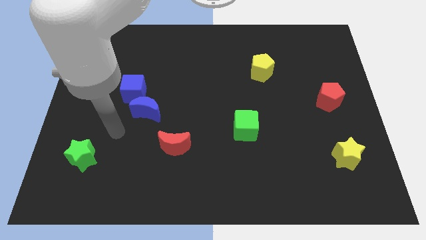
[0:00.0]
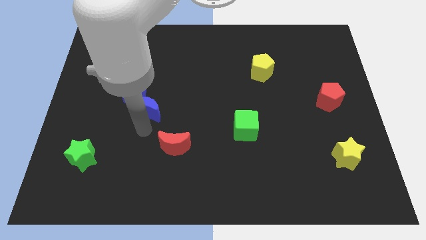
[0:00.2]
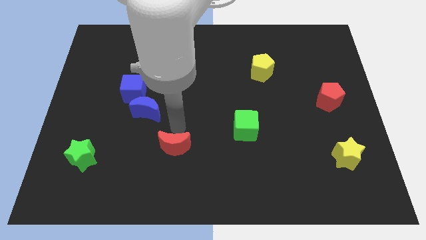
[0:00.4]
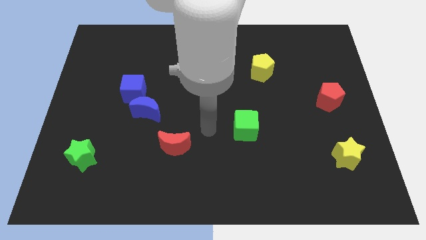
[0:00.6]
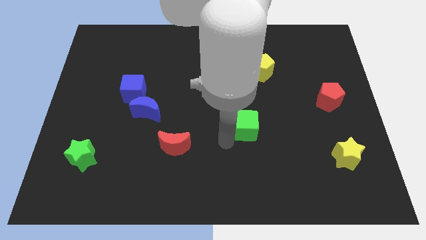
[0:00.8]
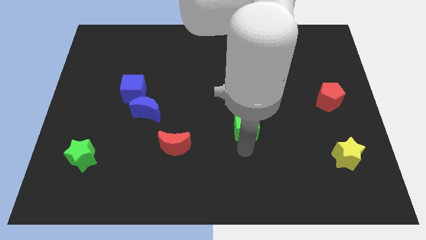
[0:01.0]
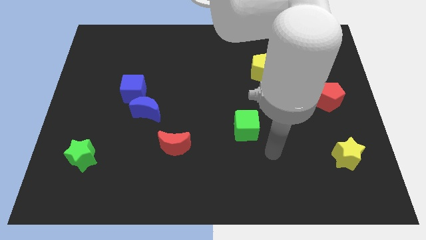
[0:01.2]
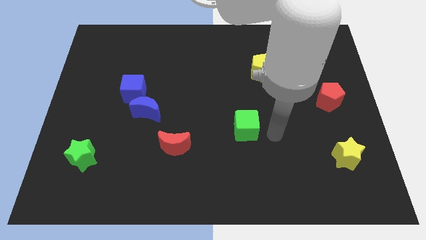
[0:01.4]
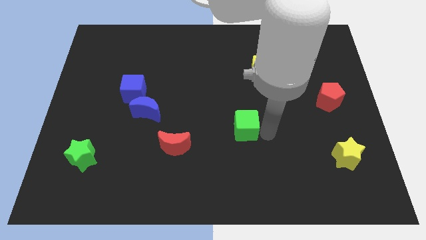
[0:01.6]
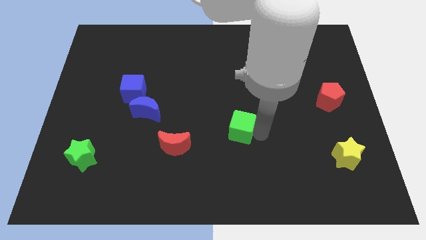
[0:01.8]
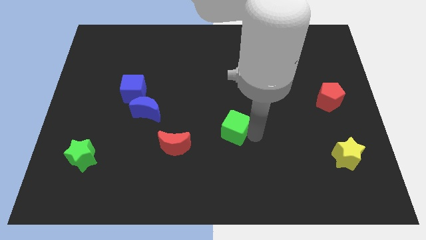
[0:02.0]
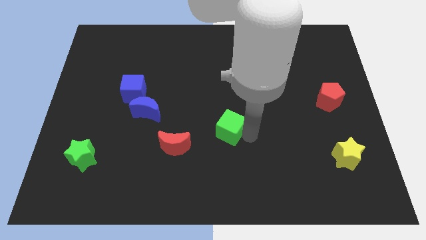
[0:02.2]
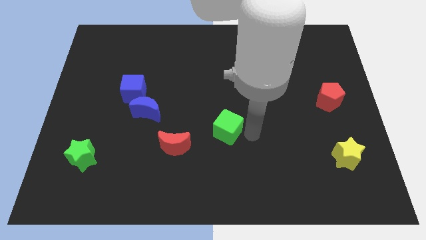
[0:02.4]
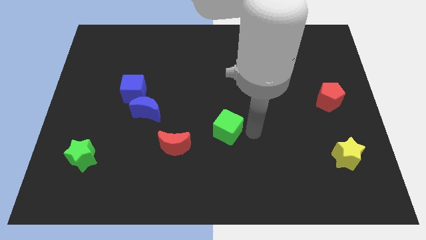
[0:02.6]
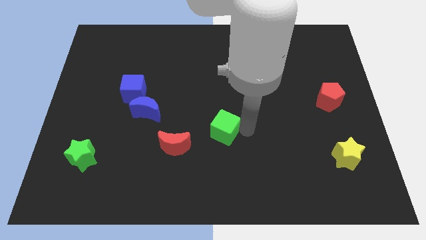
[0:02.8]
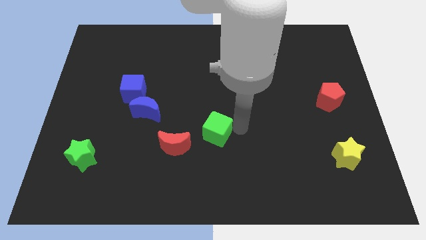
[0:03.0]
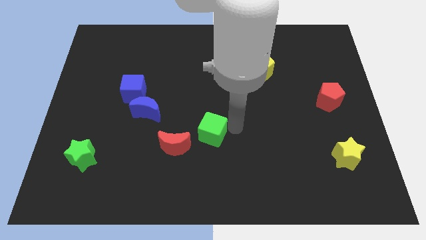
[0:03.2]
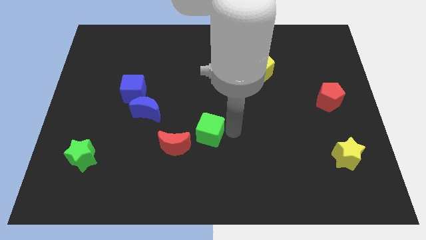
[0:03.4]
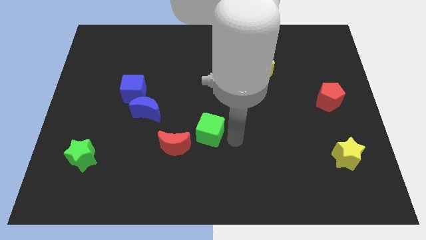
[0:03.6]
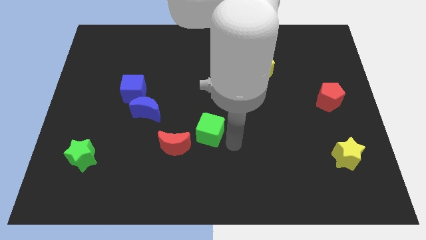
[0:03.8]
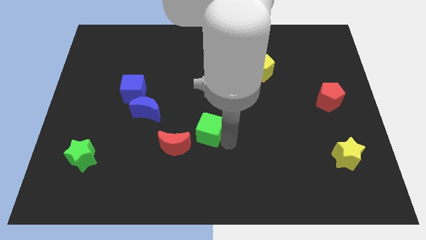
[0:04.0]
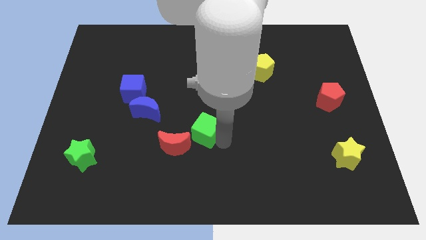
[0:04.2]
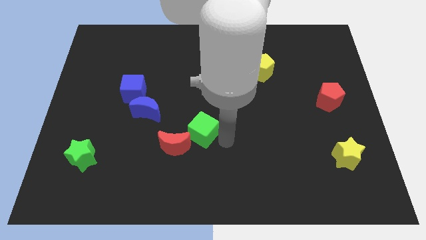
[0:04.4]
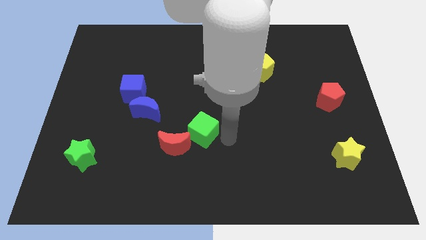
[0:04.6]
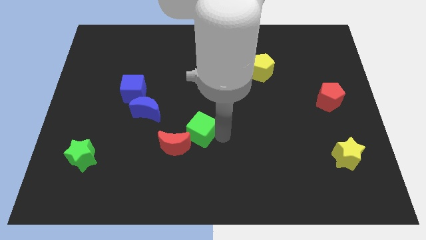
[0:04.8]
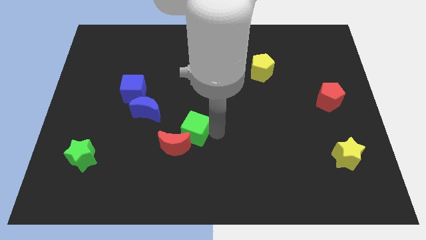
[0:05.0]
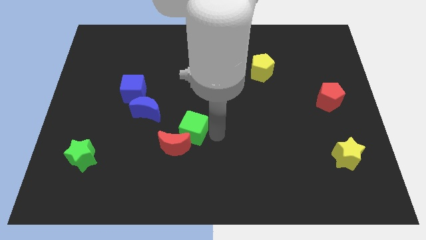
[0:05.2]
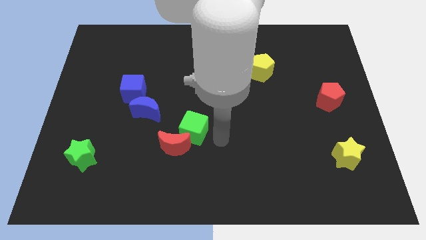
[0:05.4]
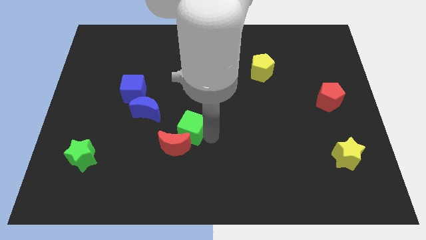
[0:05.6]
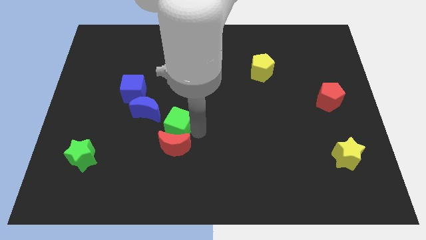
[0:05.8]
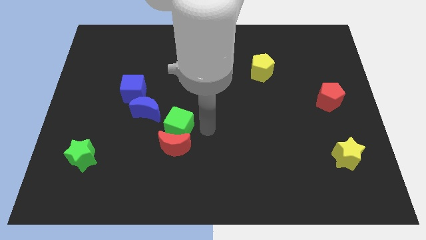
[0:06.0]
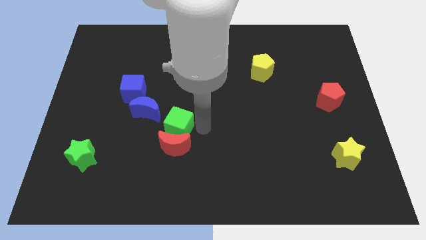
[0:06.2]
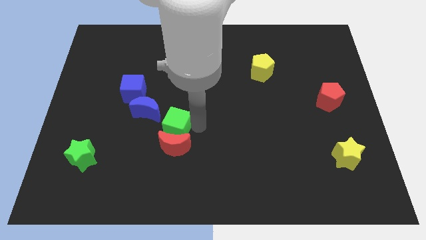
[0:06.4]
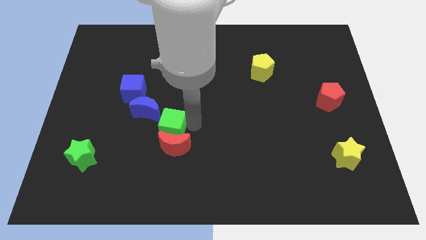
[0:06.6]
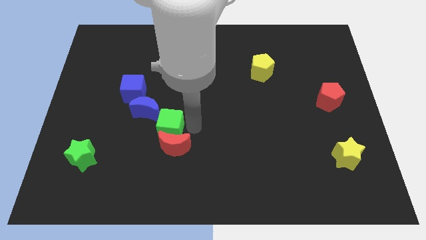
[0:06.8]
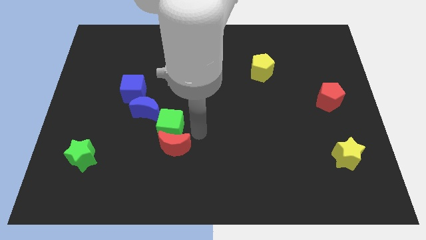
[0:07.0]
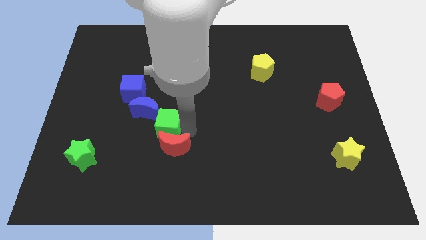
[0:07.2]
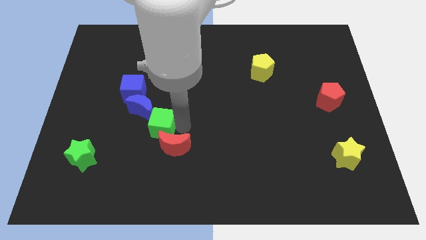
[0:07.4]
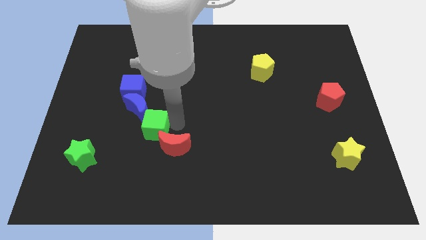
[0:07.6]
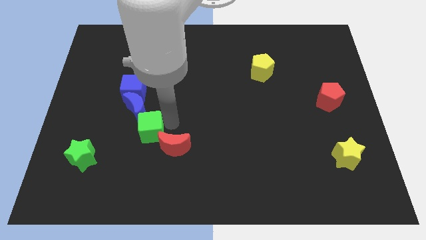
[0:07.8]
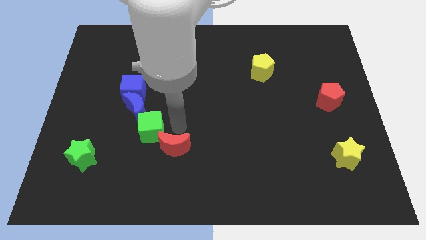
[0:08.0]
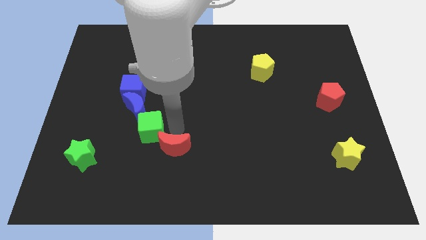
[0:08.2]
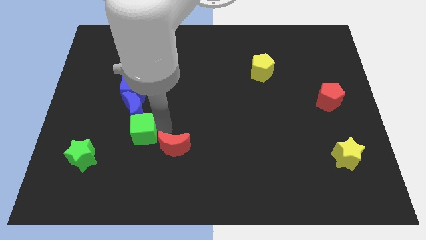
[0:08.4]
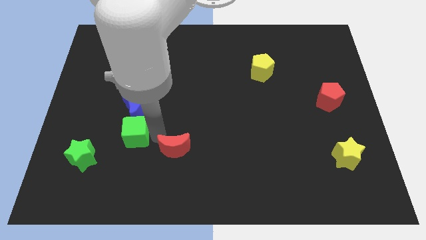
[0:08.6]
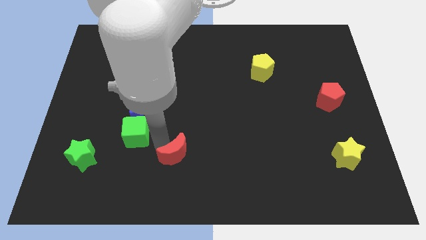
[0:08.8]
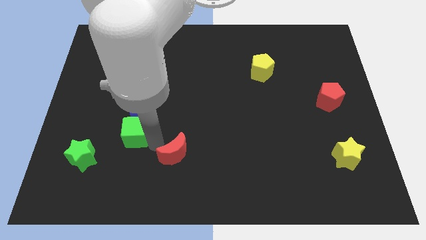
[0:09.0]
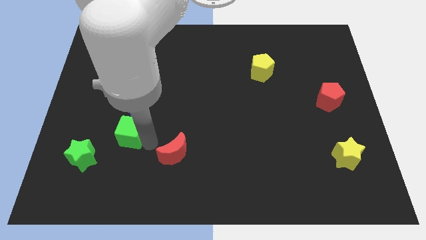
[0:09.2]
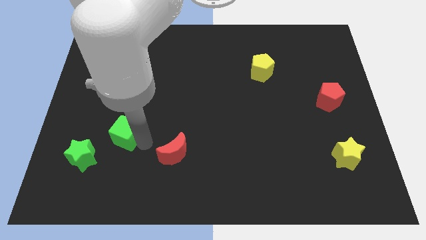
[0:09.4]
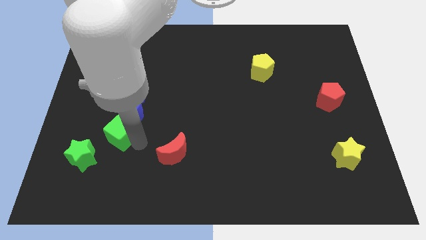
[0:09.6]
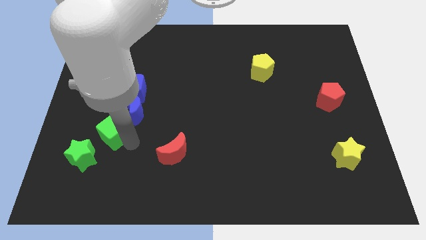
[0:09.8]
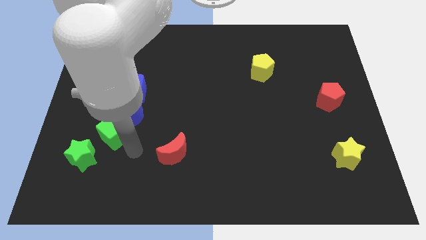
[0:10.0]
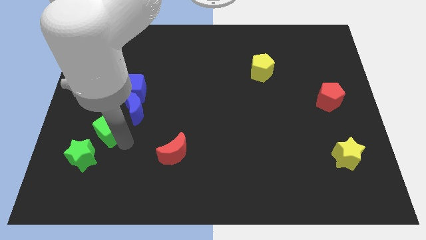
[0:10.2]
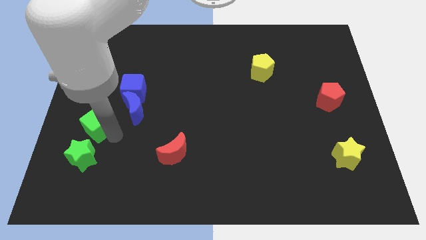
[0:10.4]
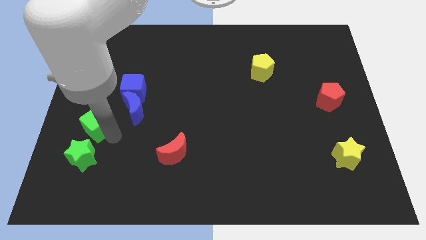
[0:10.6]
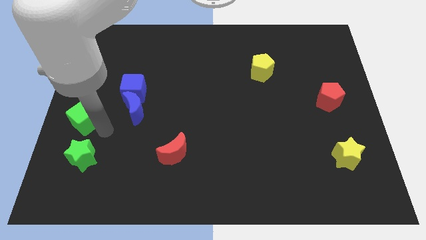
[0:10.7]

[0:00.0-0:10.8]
move the green cube to the left side
